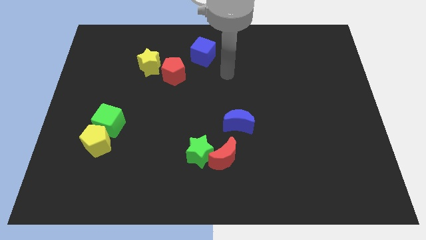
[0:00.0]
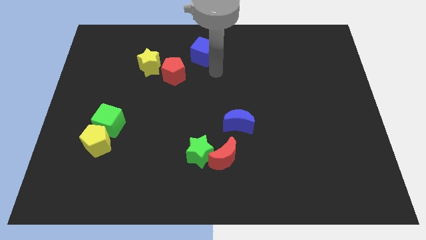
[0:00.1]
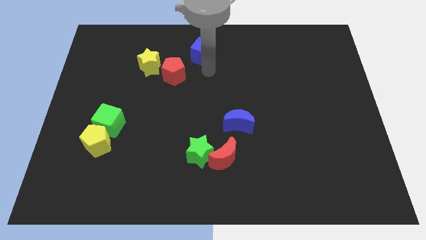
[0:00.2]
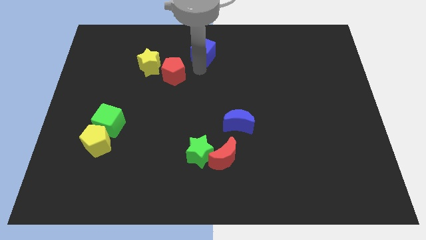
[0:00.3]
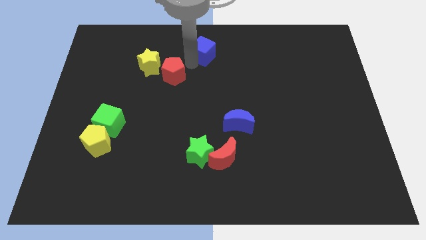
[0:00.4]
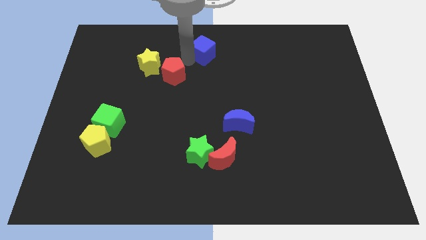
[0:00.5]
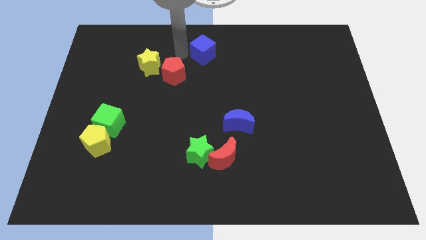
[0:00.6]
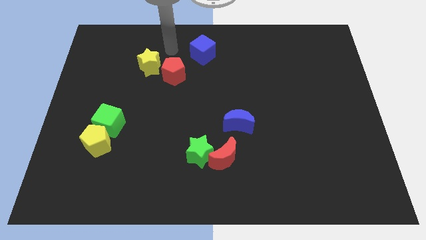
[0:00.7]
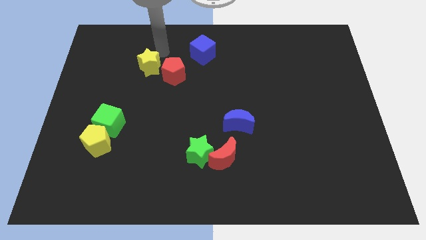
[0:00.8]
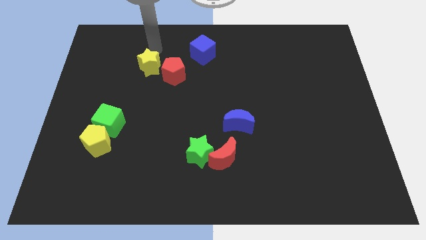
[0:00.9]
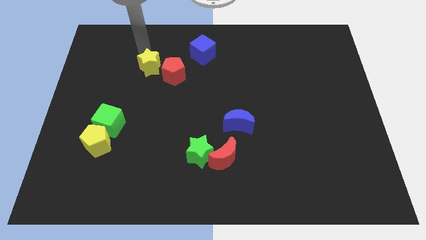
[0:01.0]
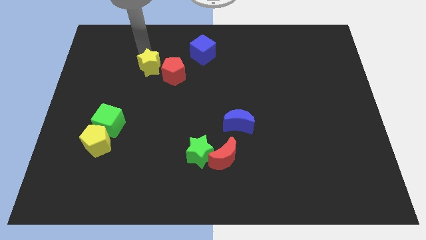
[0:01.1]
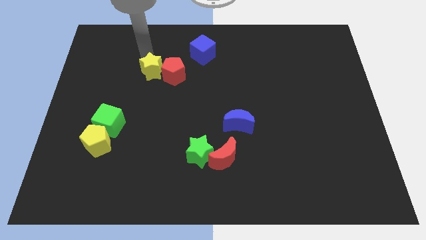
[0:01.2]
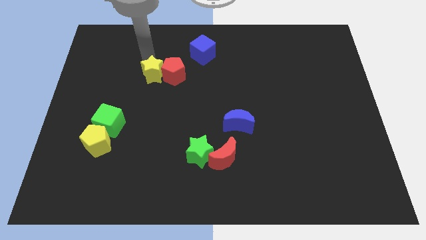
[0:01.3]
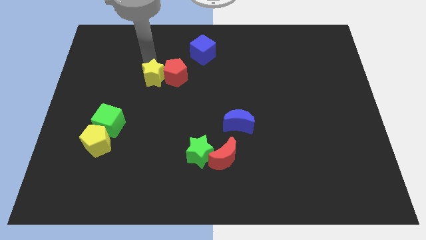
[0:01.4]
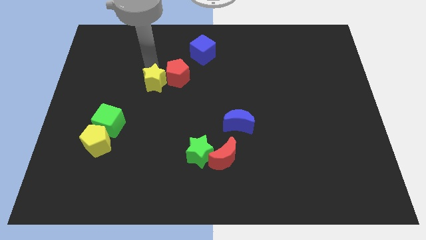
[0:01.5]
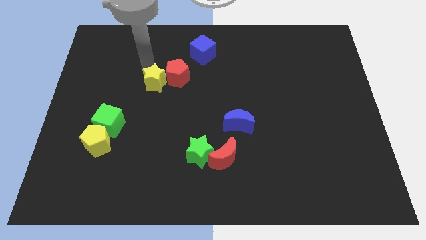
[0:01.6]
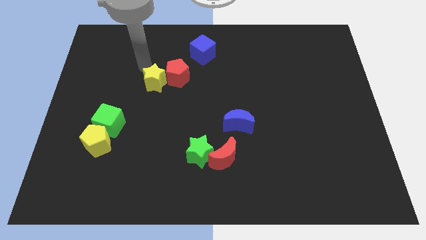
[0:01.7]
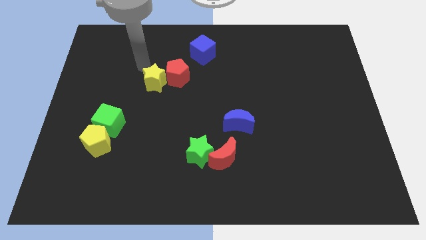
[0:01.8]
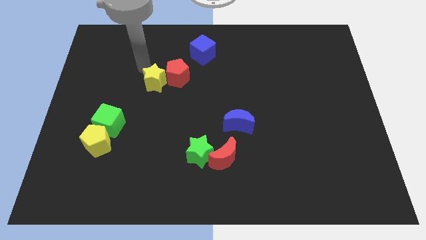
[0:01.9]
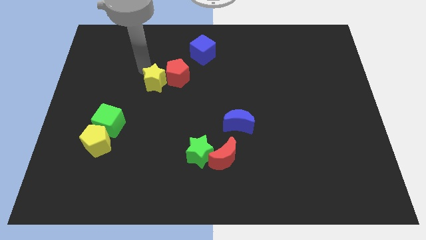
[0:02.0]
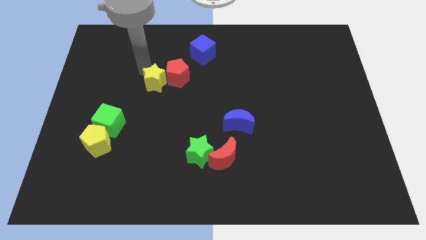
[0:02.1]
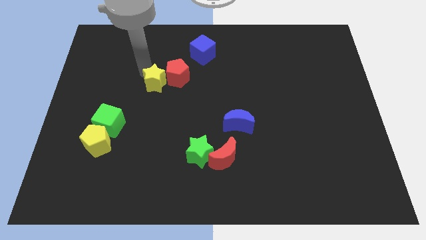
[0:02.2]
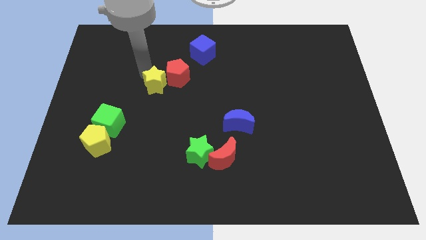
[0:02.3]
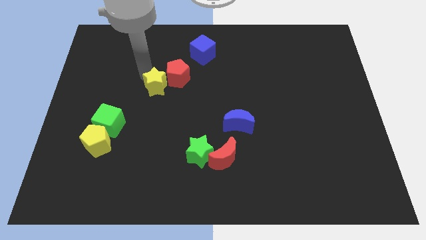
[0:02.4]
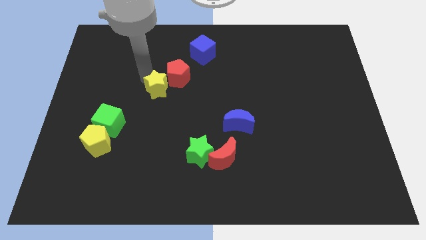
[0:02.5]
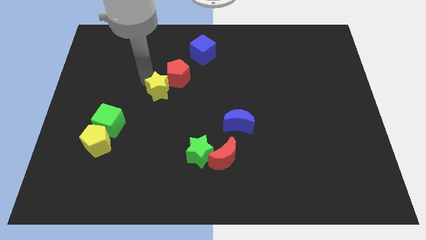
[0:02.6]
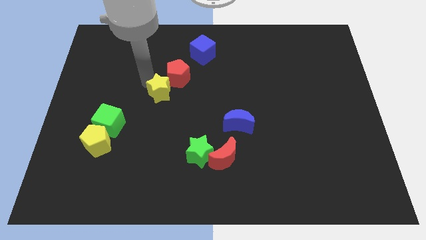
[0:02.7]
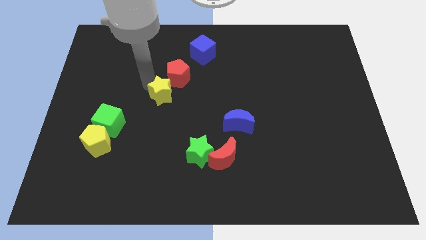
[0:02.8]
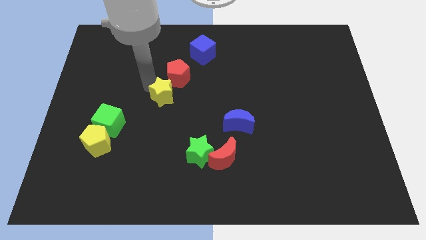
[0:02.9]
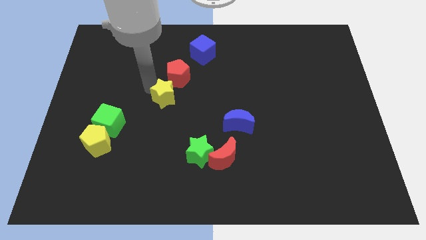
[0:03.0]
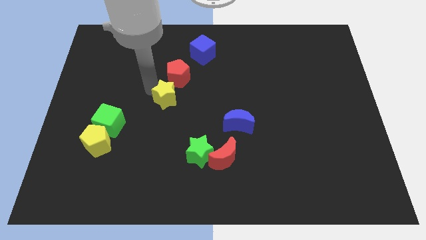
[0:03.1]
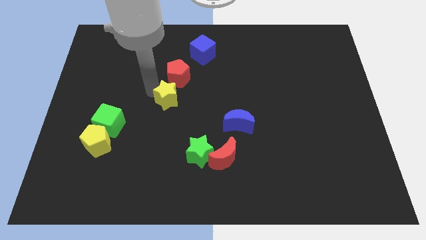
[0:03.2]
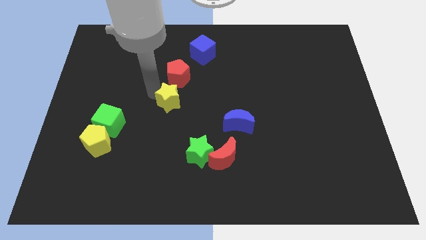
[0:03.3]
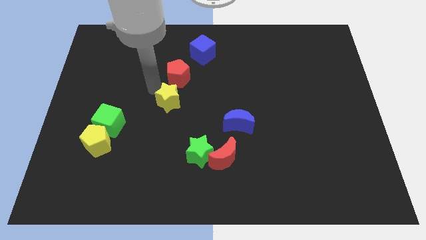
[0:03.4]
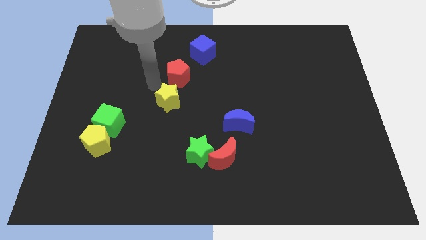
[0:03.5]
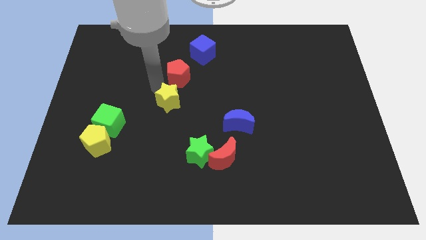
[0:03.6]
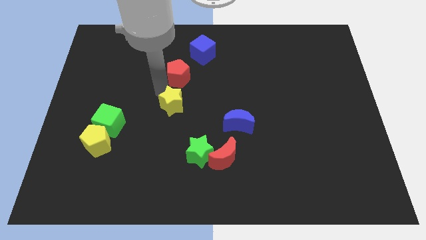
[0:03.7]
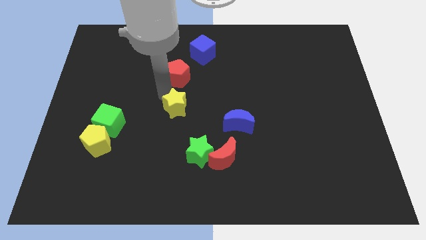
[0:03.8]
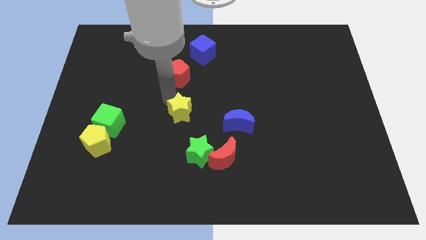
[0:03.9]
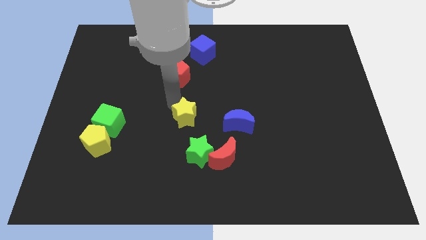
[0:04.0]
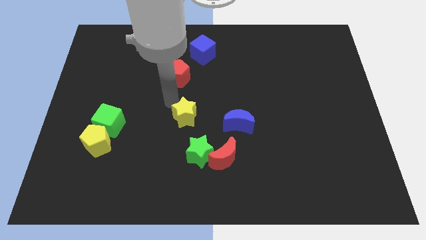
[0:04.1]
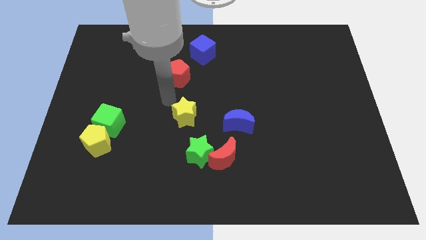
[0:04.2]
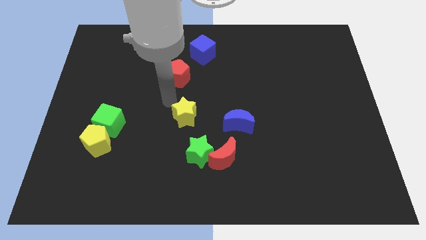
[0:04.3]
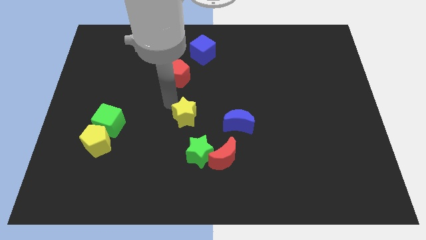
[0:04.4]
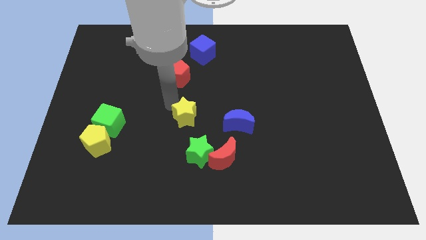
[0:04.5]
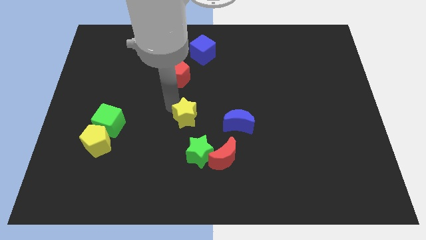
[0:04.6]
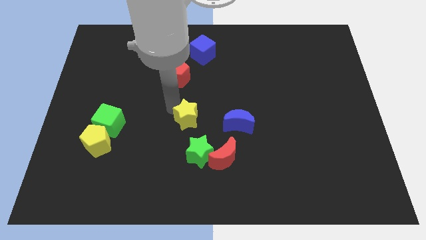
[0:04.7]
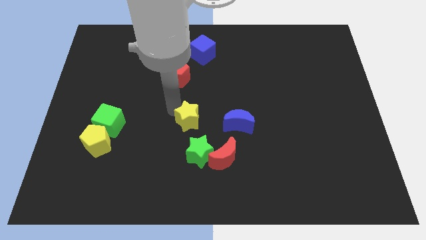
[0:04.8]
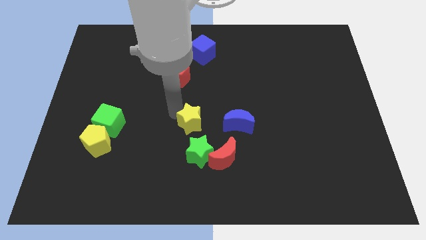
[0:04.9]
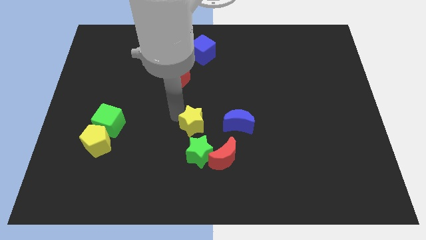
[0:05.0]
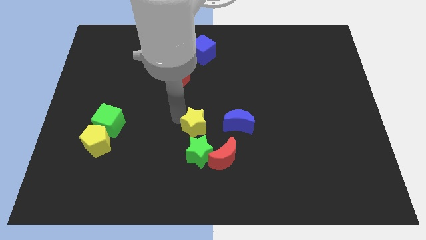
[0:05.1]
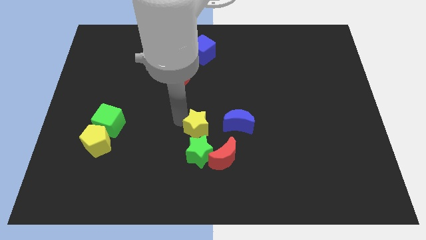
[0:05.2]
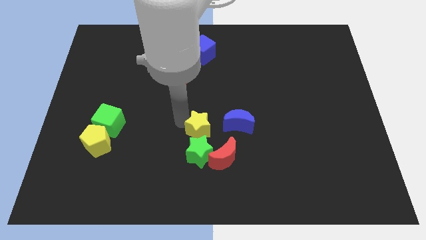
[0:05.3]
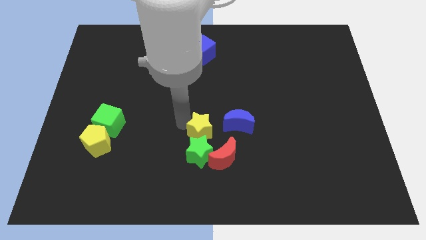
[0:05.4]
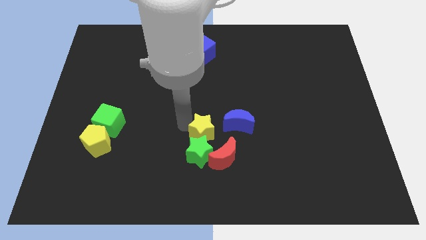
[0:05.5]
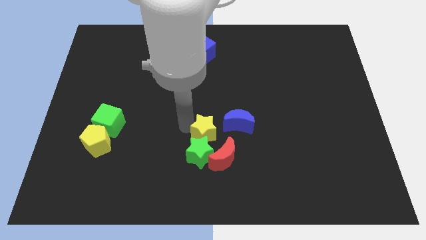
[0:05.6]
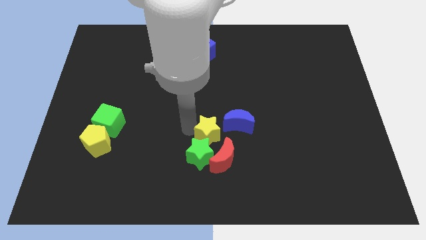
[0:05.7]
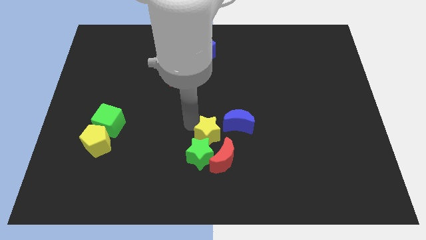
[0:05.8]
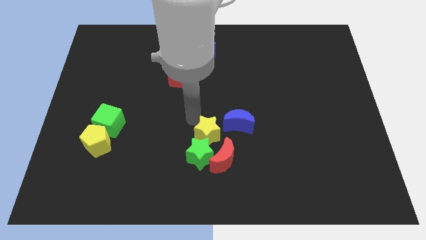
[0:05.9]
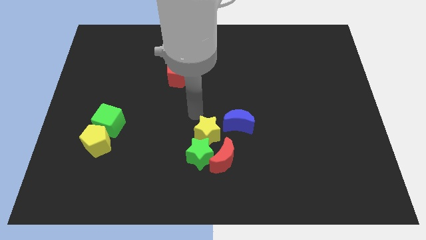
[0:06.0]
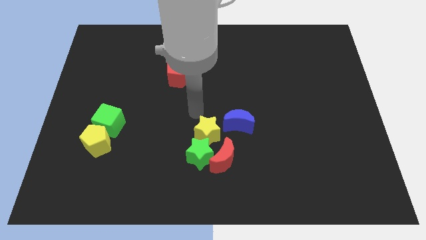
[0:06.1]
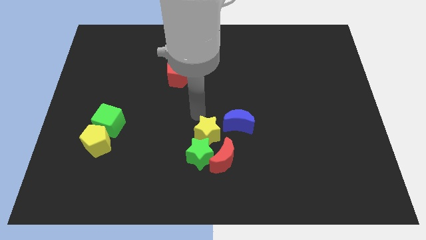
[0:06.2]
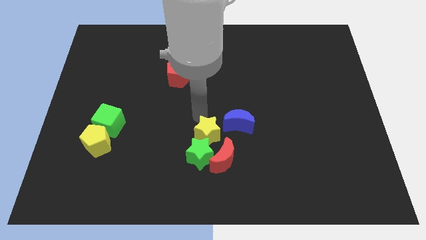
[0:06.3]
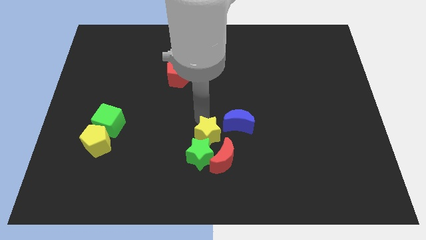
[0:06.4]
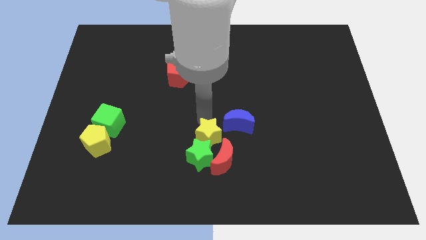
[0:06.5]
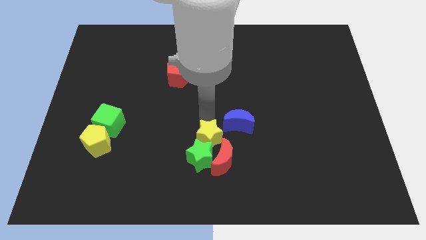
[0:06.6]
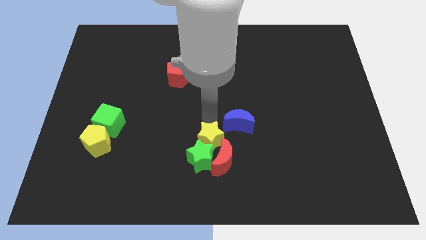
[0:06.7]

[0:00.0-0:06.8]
move the yellow star close to the red moon

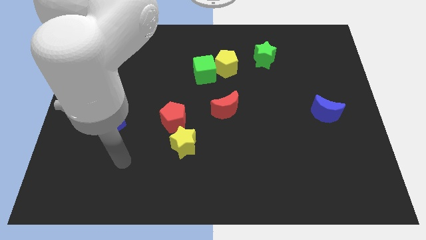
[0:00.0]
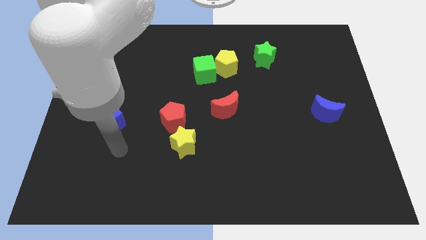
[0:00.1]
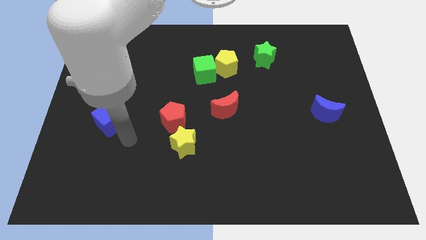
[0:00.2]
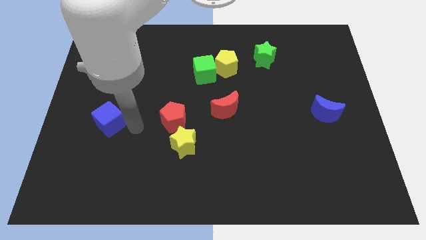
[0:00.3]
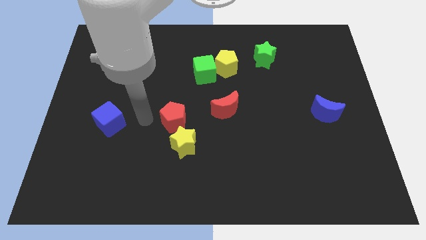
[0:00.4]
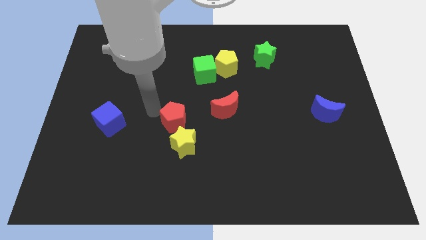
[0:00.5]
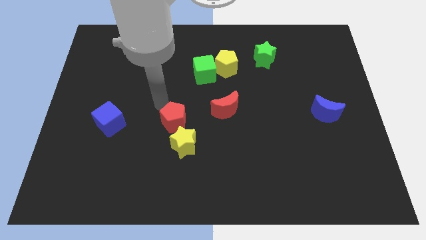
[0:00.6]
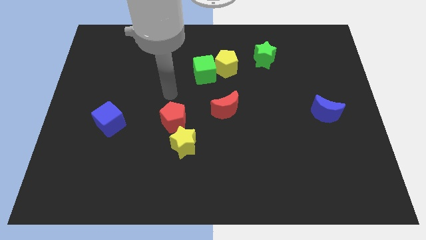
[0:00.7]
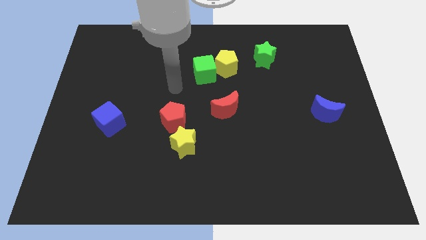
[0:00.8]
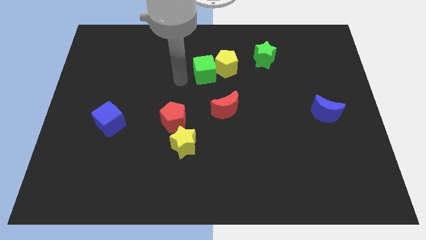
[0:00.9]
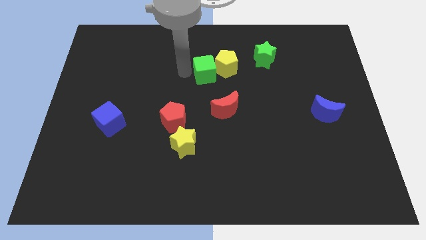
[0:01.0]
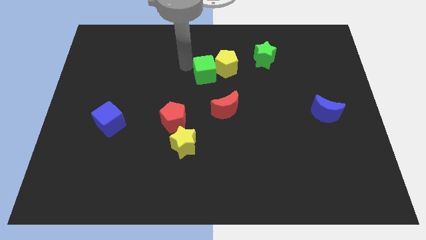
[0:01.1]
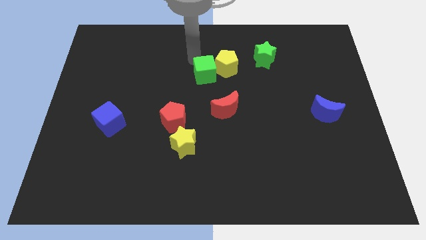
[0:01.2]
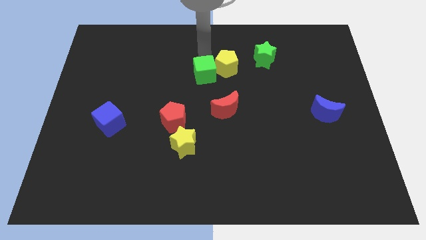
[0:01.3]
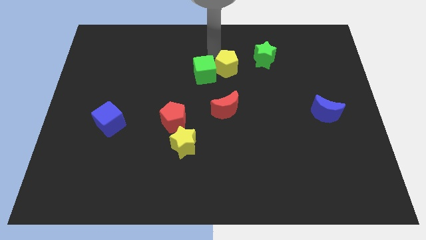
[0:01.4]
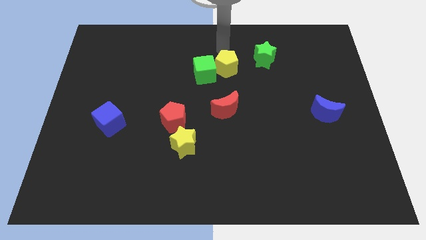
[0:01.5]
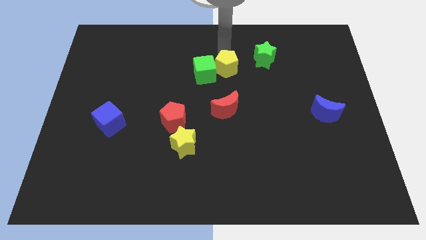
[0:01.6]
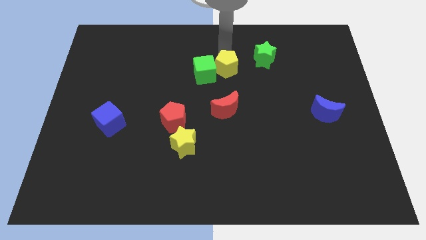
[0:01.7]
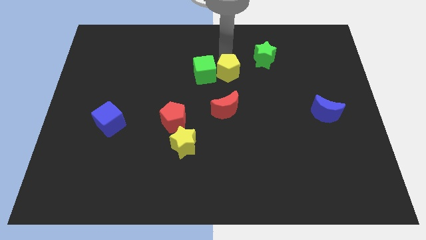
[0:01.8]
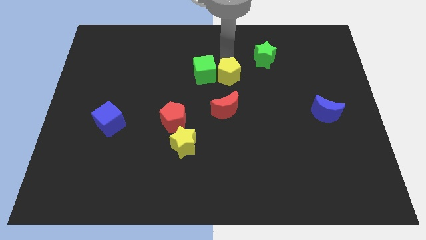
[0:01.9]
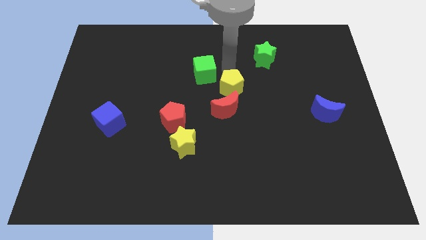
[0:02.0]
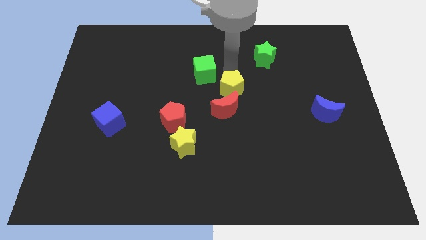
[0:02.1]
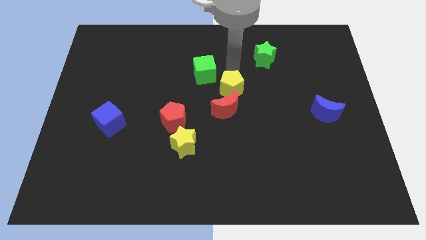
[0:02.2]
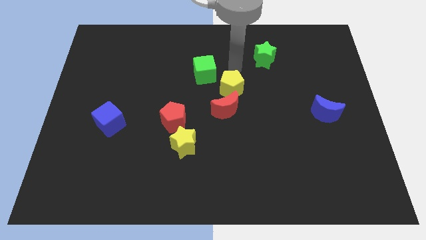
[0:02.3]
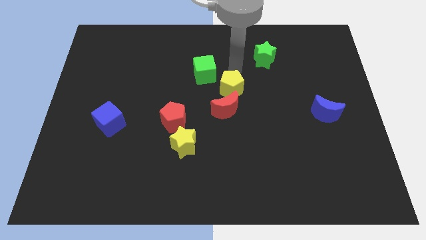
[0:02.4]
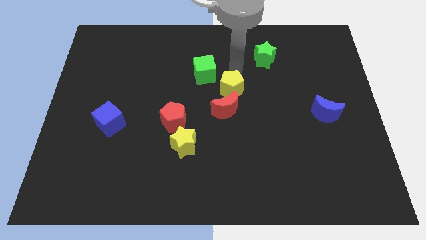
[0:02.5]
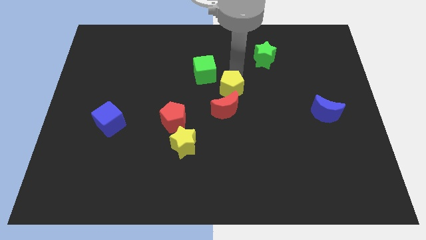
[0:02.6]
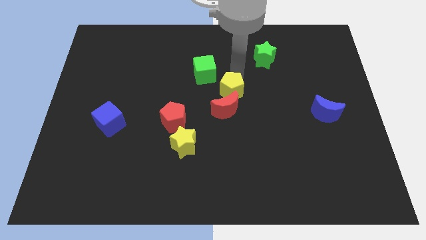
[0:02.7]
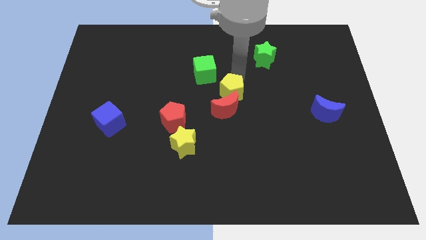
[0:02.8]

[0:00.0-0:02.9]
put the yellow pentagon next to the red moon
